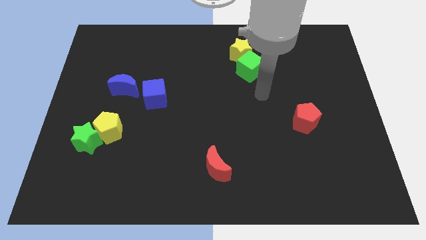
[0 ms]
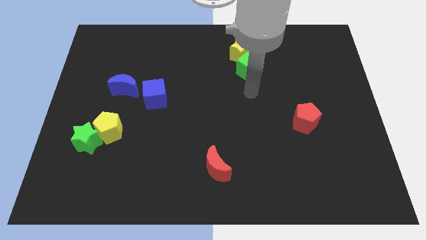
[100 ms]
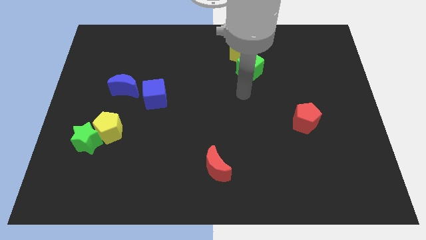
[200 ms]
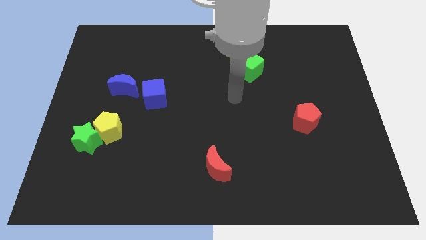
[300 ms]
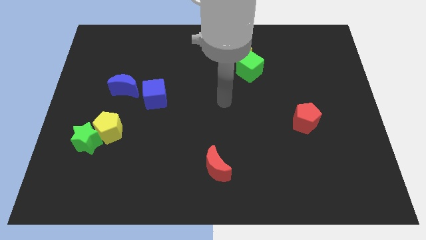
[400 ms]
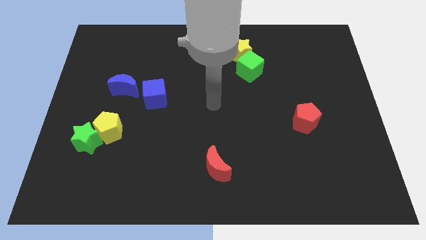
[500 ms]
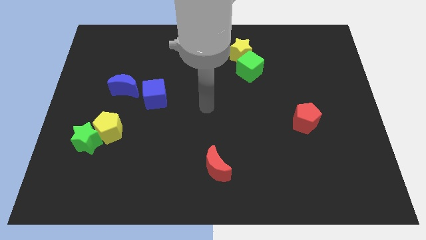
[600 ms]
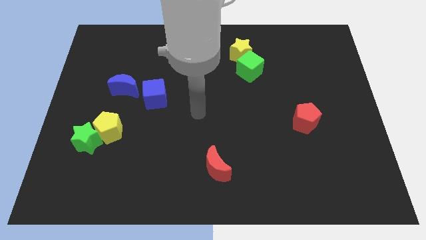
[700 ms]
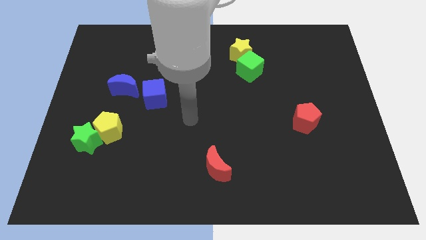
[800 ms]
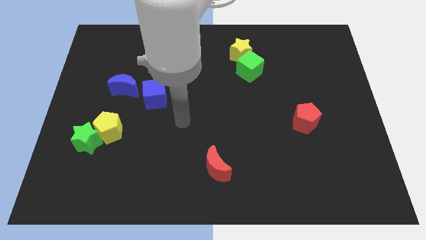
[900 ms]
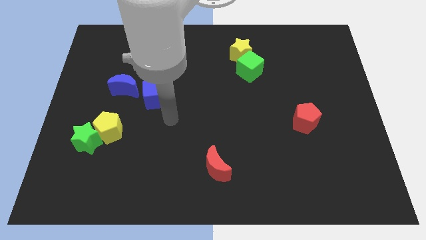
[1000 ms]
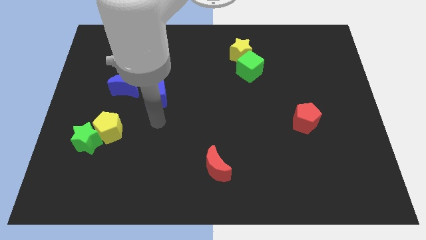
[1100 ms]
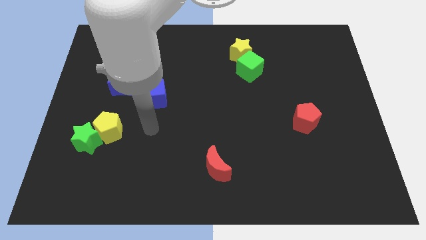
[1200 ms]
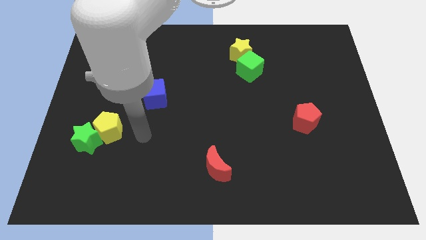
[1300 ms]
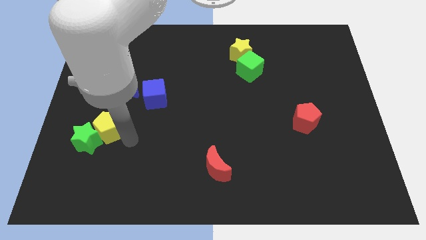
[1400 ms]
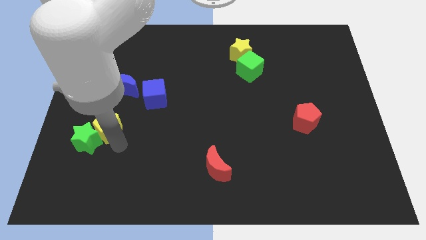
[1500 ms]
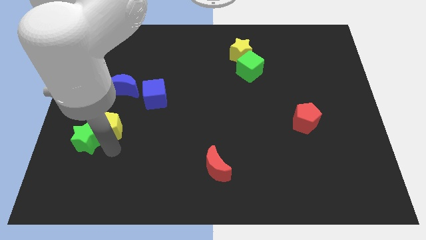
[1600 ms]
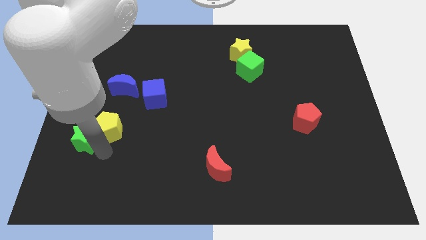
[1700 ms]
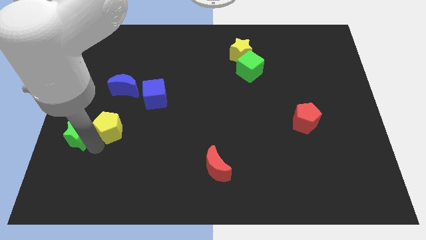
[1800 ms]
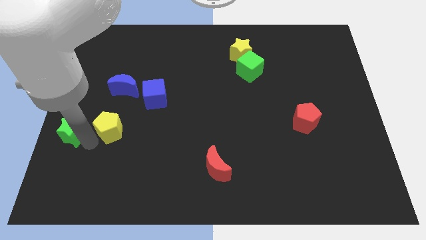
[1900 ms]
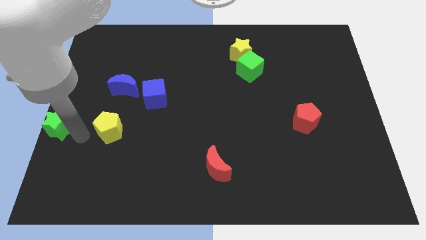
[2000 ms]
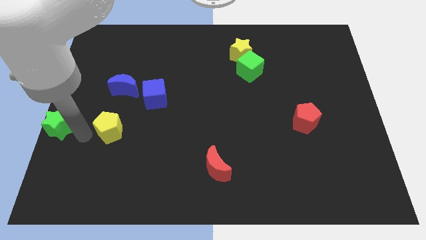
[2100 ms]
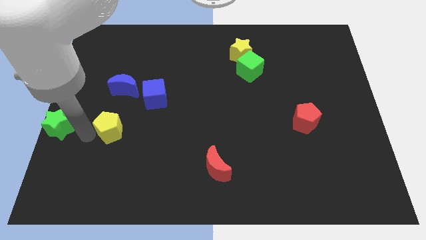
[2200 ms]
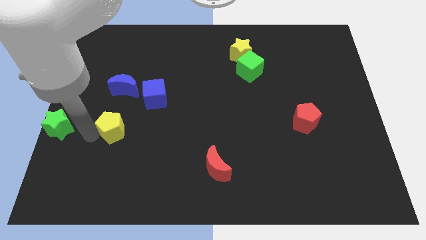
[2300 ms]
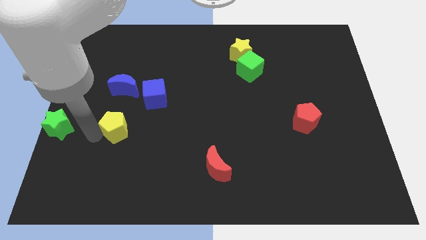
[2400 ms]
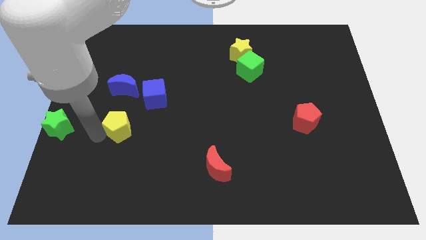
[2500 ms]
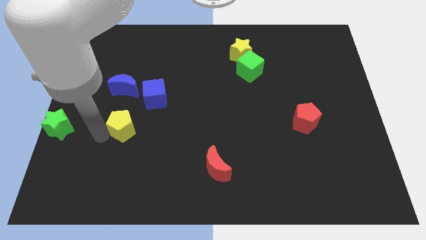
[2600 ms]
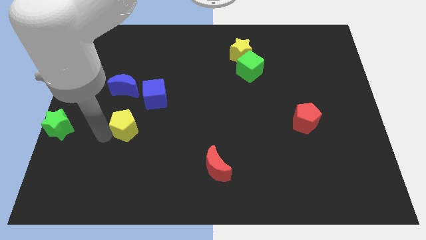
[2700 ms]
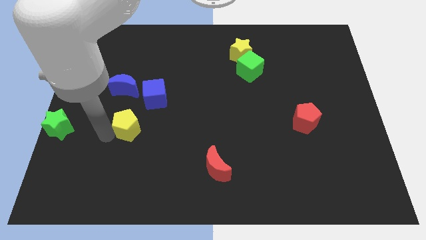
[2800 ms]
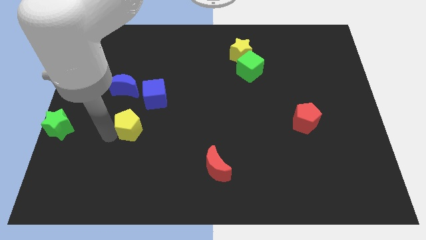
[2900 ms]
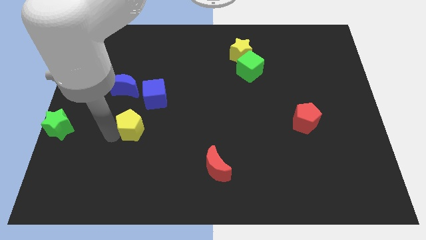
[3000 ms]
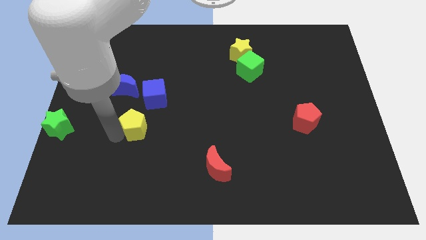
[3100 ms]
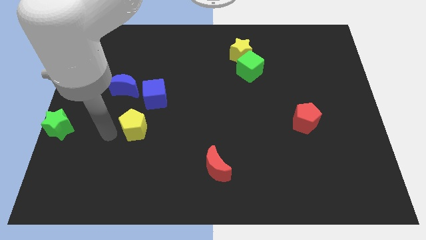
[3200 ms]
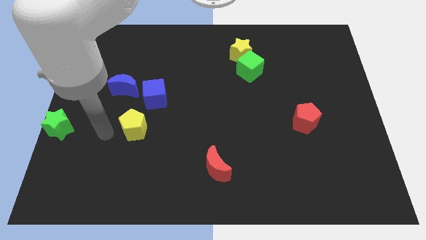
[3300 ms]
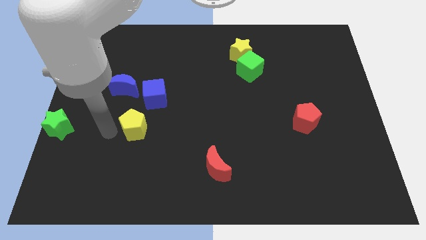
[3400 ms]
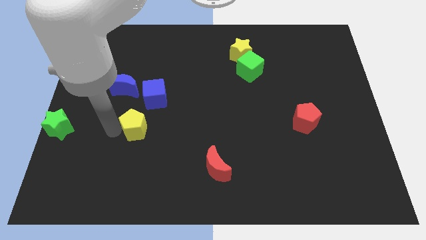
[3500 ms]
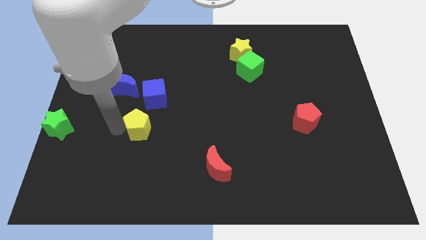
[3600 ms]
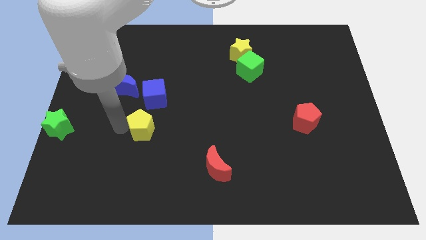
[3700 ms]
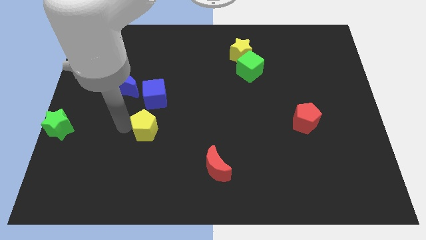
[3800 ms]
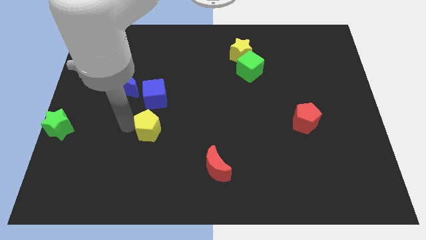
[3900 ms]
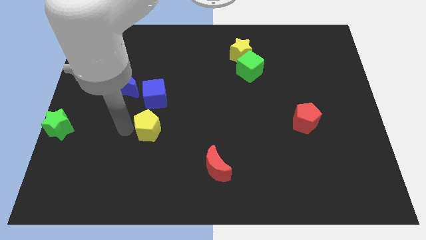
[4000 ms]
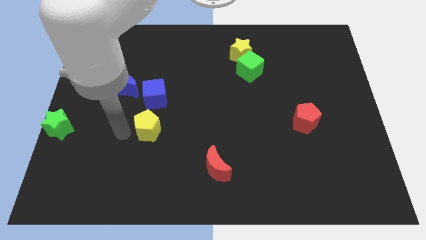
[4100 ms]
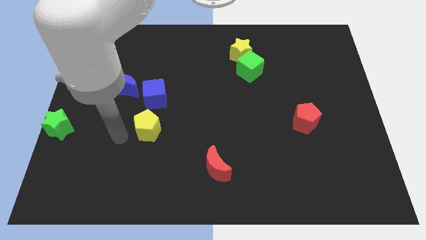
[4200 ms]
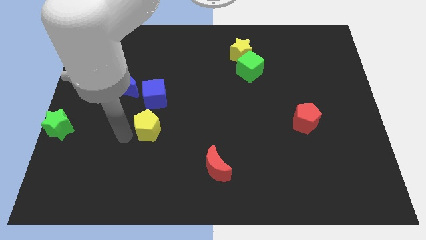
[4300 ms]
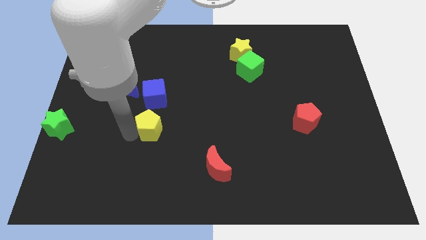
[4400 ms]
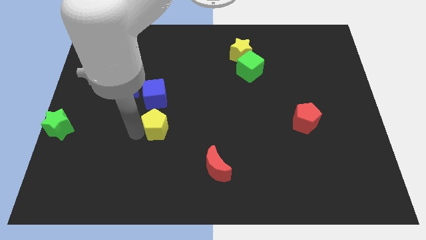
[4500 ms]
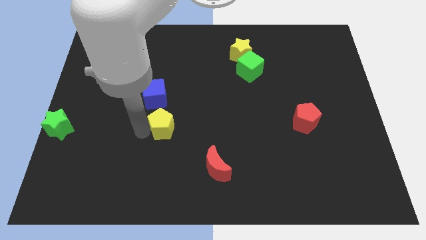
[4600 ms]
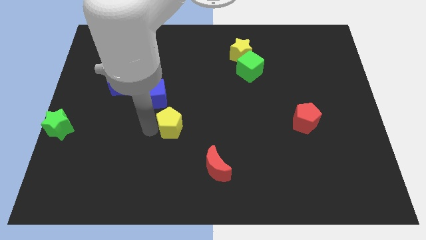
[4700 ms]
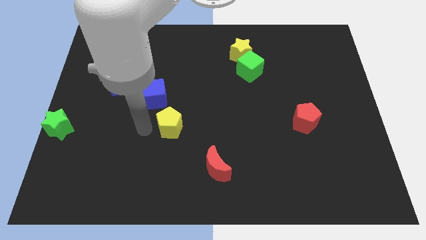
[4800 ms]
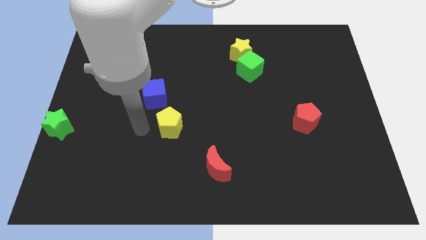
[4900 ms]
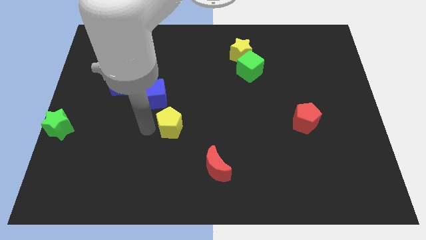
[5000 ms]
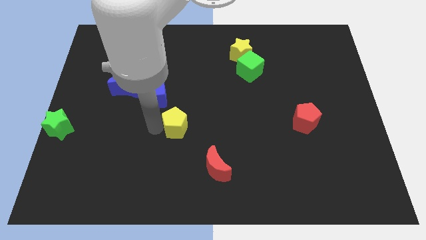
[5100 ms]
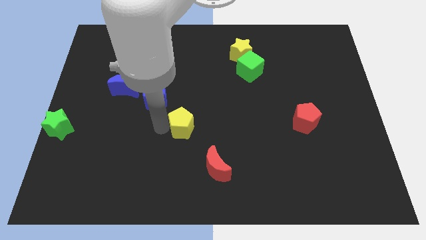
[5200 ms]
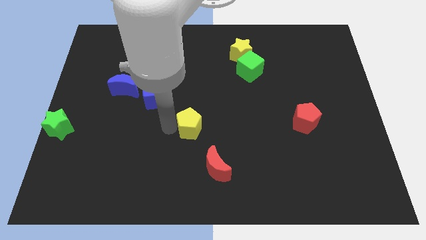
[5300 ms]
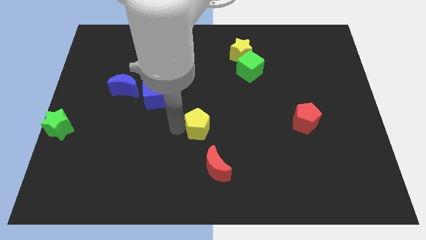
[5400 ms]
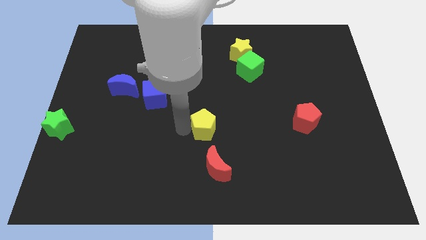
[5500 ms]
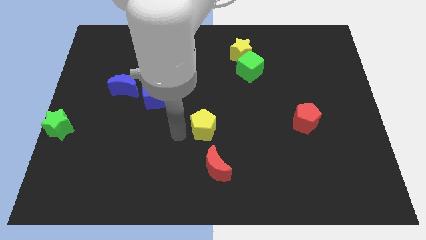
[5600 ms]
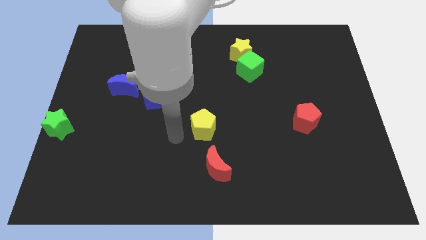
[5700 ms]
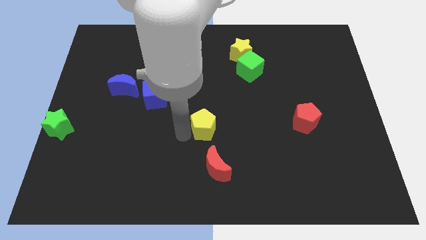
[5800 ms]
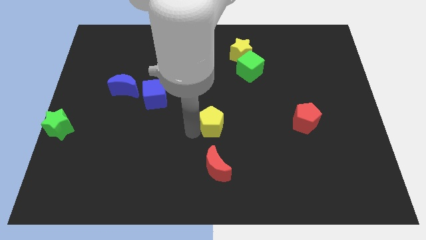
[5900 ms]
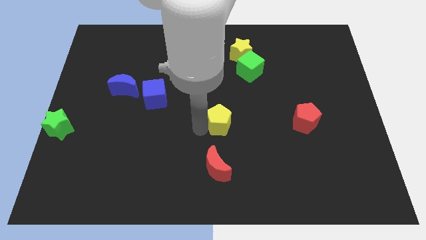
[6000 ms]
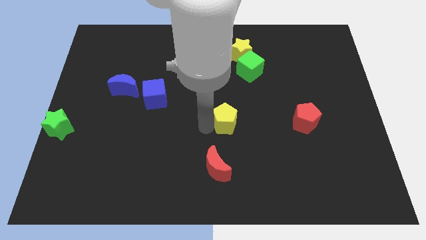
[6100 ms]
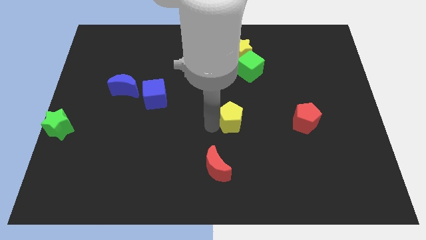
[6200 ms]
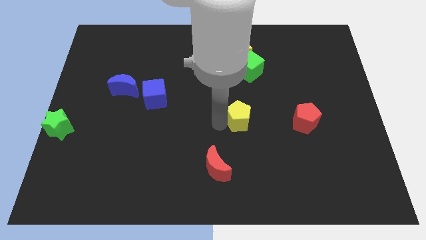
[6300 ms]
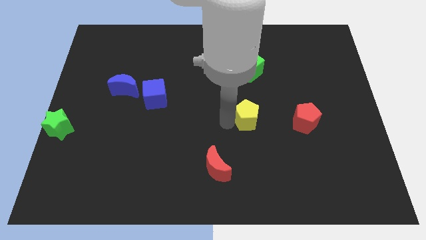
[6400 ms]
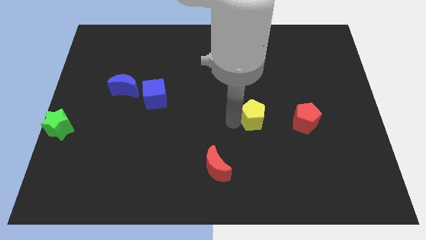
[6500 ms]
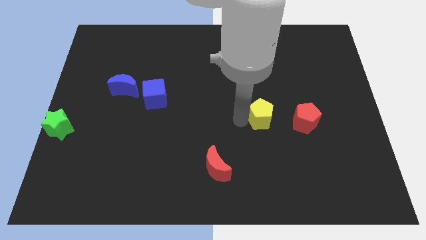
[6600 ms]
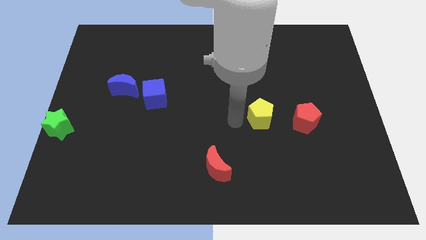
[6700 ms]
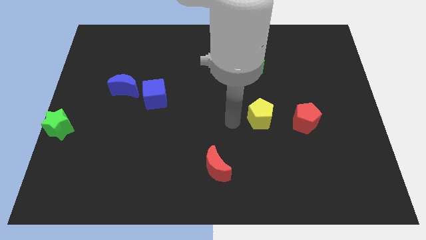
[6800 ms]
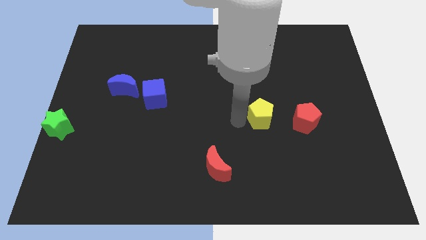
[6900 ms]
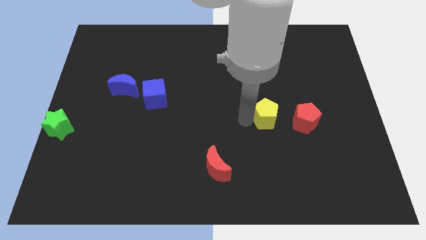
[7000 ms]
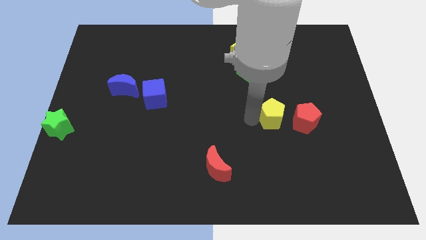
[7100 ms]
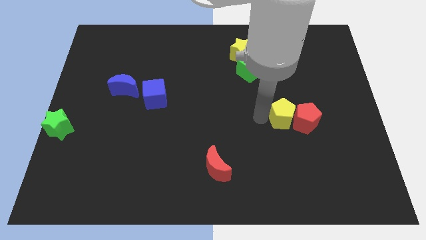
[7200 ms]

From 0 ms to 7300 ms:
put the yellow pentagon next to the red pentagon

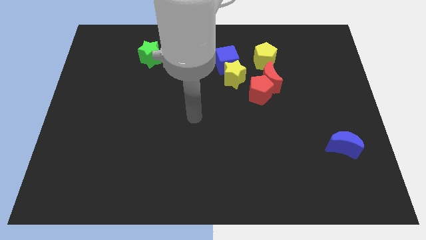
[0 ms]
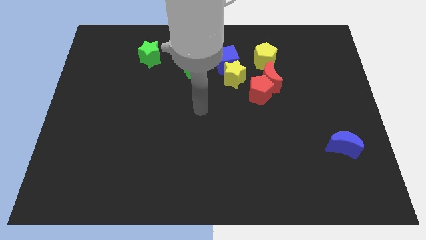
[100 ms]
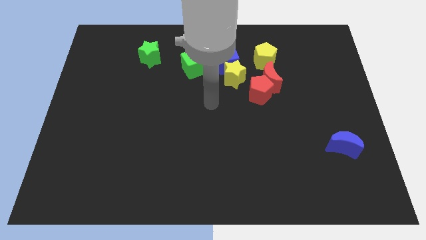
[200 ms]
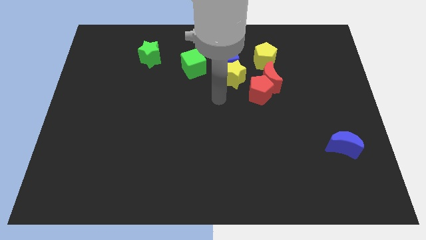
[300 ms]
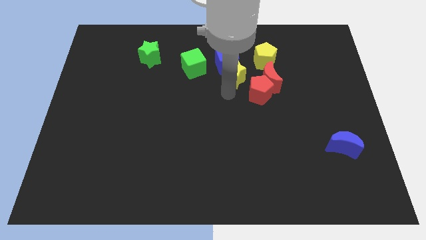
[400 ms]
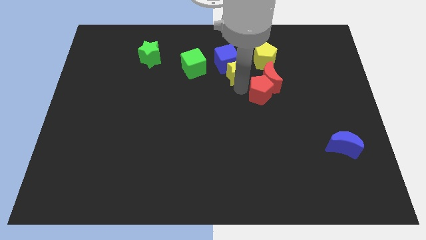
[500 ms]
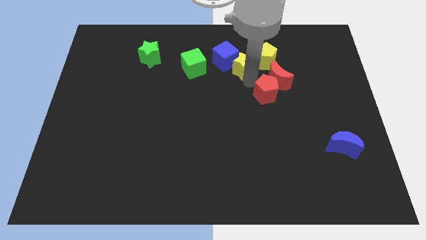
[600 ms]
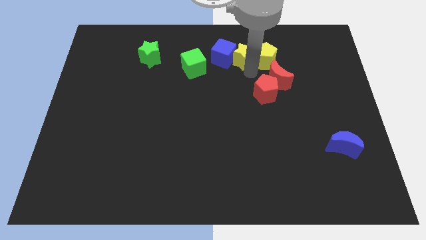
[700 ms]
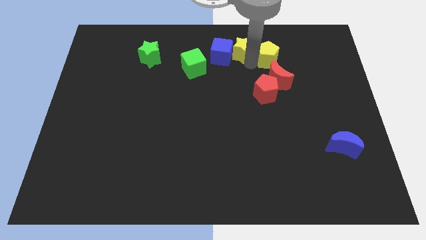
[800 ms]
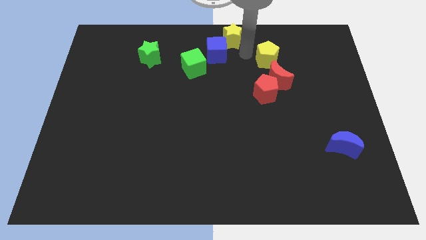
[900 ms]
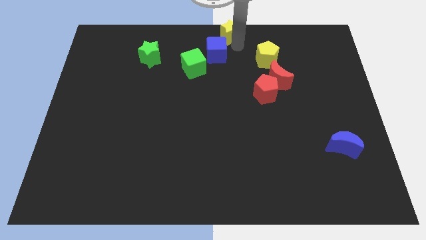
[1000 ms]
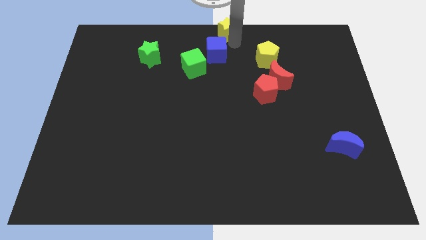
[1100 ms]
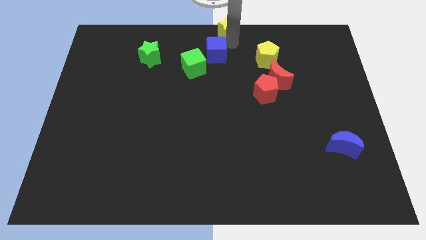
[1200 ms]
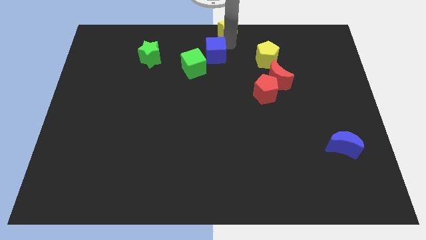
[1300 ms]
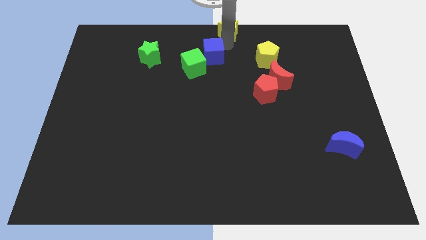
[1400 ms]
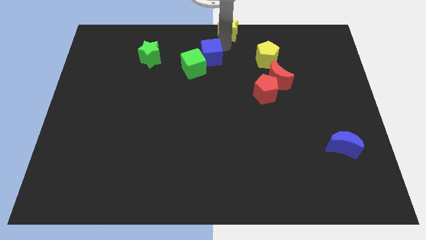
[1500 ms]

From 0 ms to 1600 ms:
push the blue cube towards the green cube
